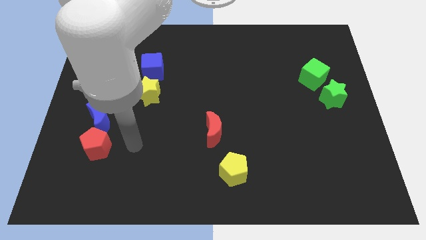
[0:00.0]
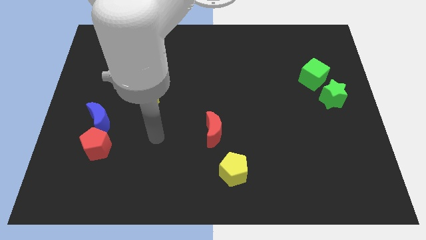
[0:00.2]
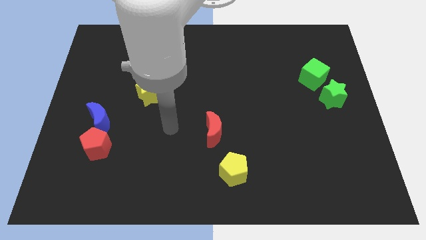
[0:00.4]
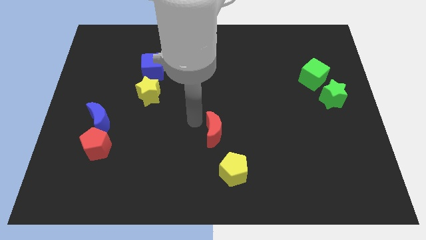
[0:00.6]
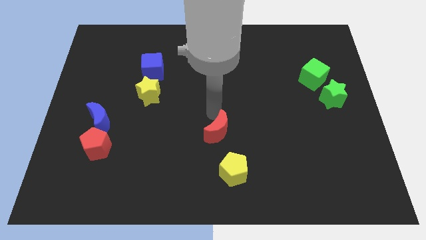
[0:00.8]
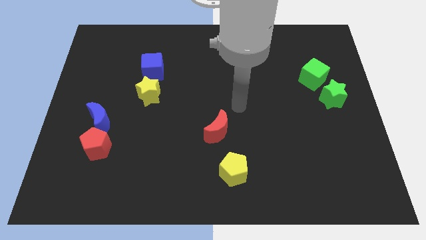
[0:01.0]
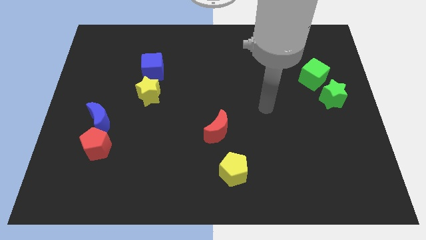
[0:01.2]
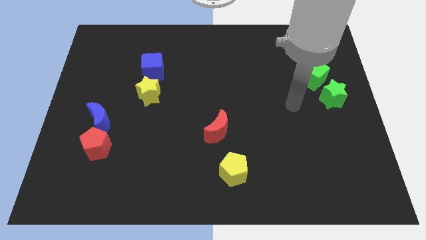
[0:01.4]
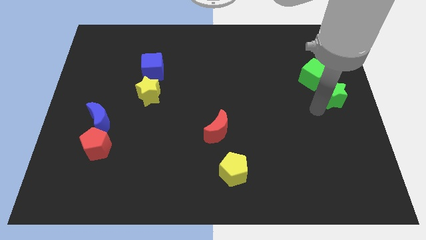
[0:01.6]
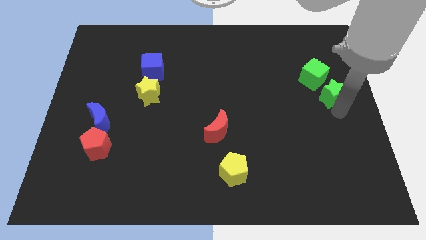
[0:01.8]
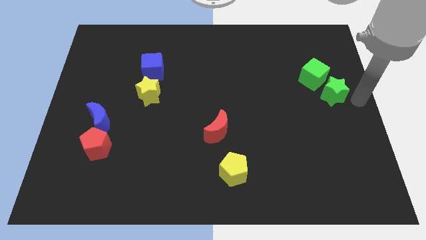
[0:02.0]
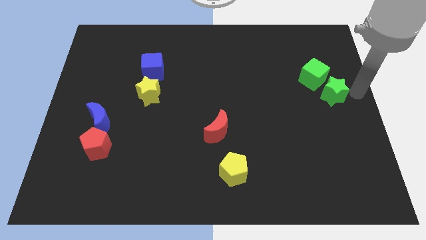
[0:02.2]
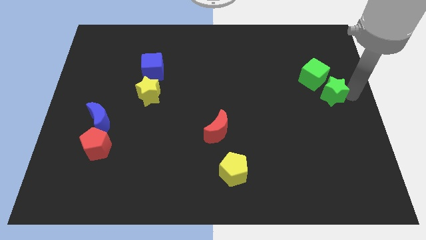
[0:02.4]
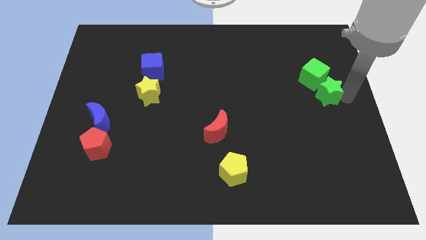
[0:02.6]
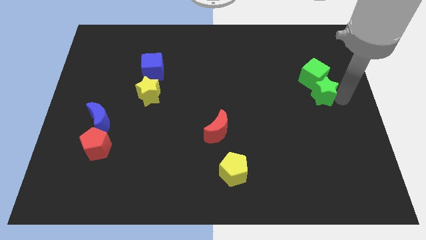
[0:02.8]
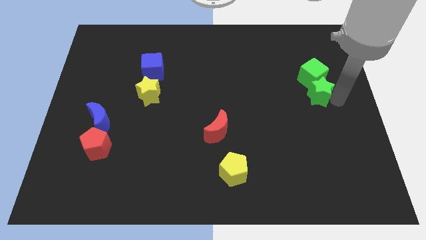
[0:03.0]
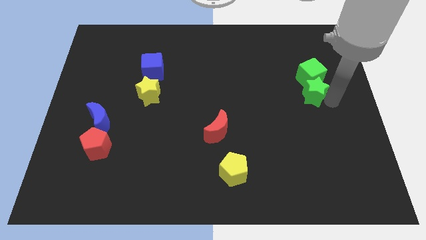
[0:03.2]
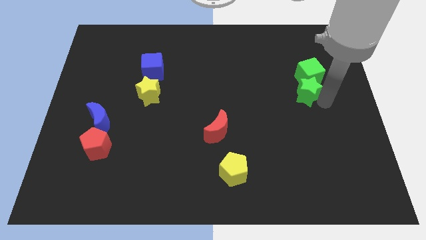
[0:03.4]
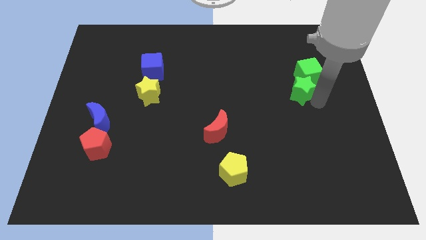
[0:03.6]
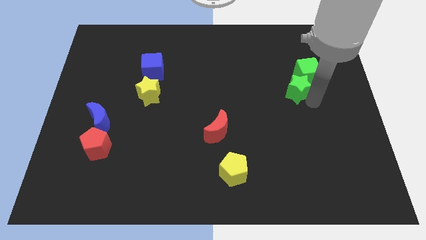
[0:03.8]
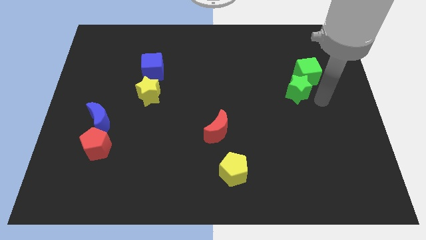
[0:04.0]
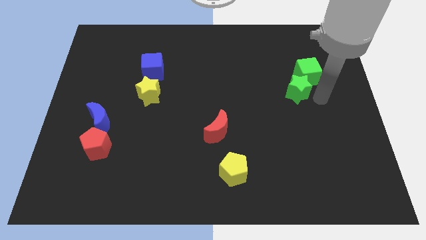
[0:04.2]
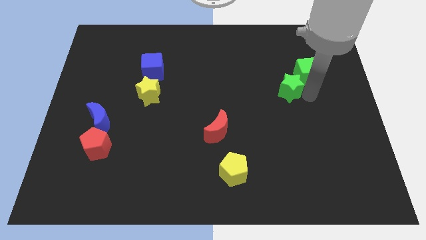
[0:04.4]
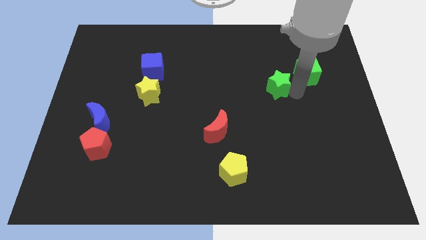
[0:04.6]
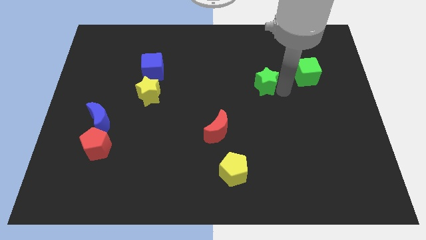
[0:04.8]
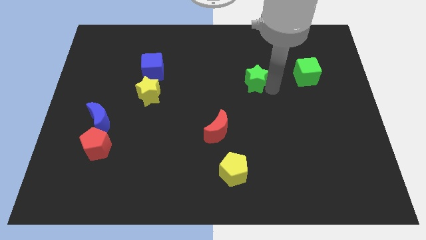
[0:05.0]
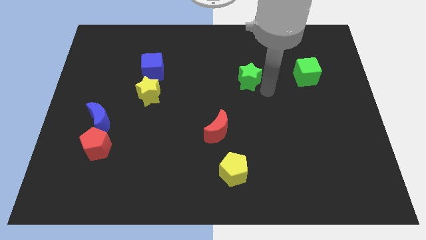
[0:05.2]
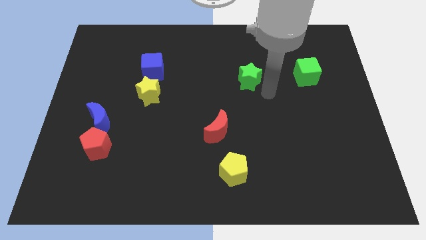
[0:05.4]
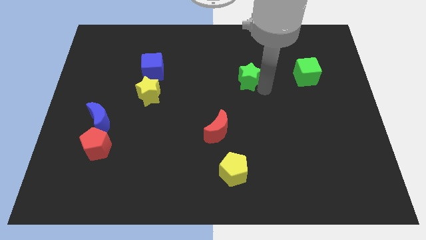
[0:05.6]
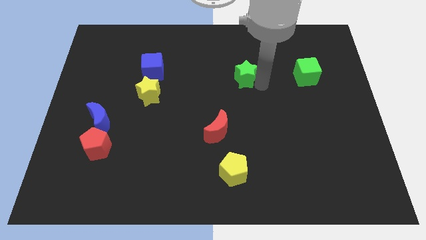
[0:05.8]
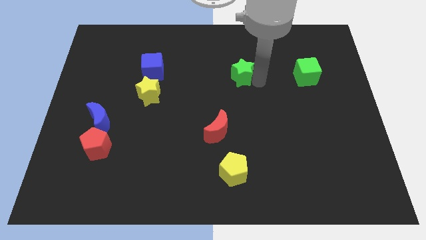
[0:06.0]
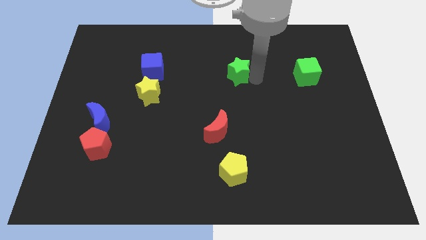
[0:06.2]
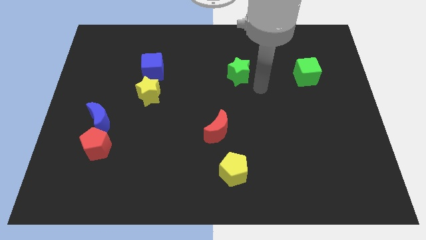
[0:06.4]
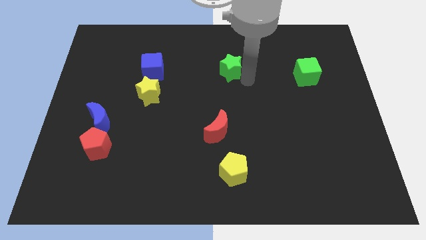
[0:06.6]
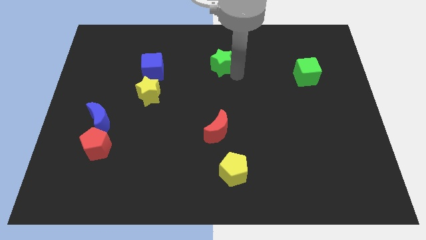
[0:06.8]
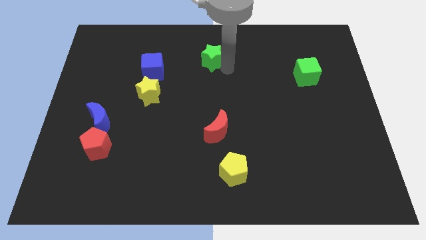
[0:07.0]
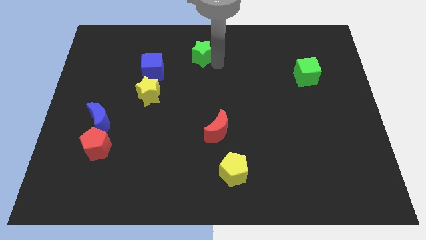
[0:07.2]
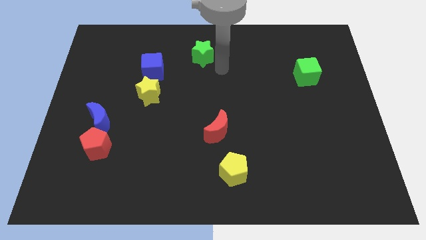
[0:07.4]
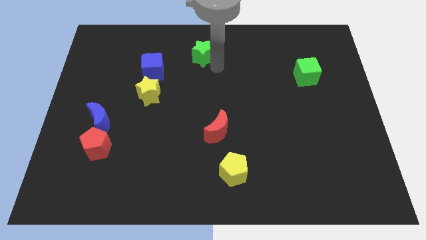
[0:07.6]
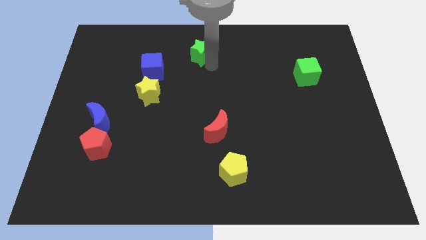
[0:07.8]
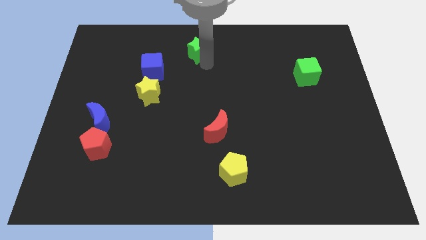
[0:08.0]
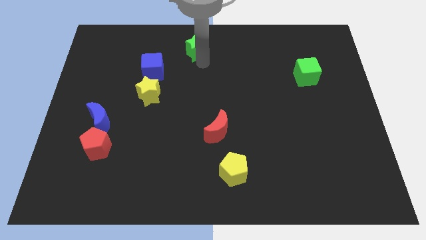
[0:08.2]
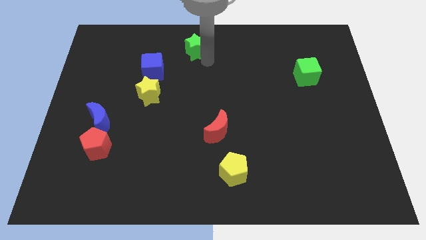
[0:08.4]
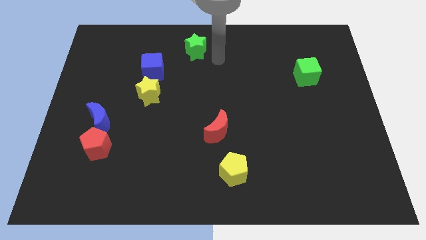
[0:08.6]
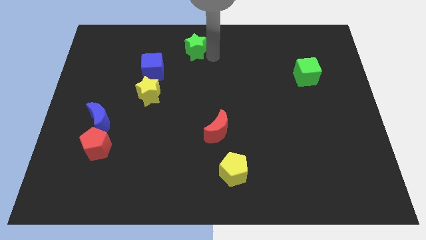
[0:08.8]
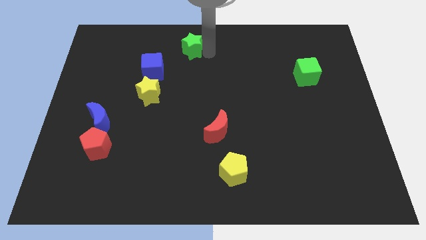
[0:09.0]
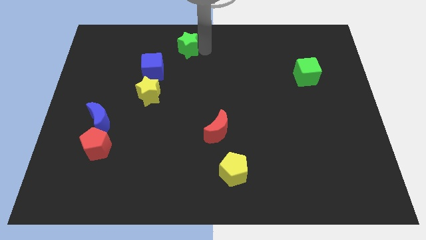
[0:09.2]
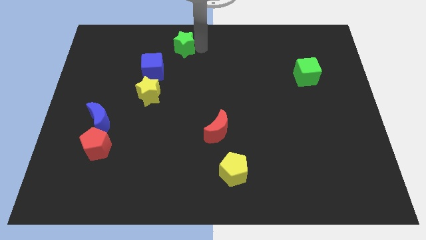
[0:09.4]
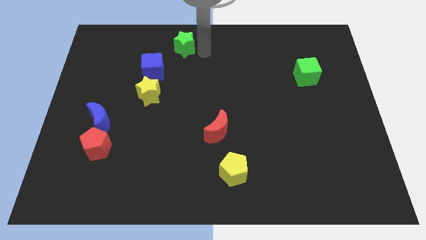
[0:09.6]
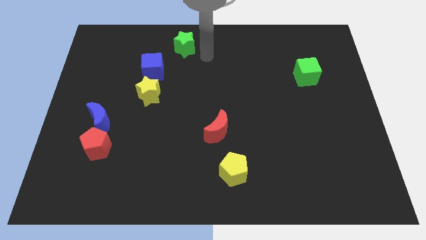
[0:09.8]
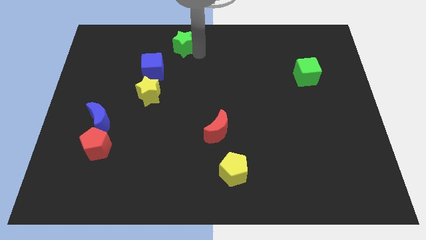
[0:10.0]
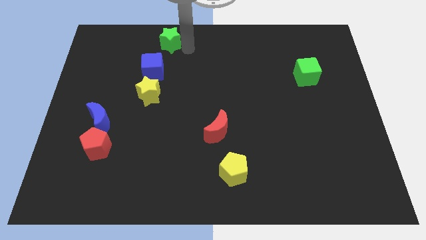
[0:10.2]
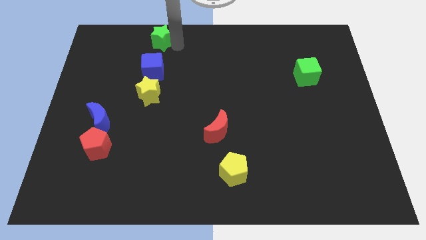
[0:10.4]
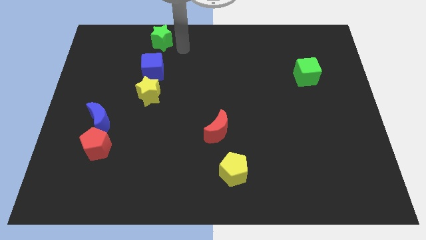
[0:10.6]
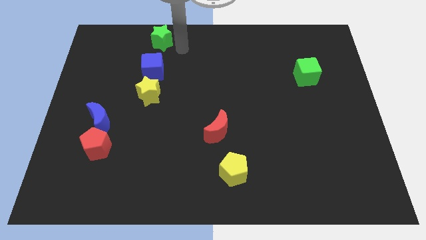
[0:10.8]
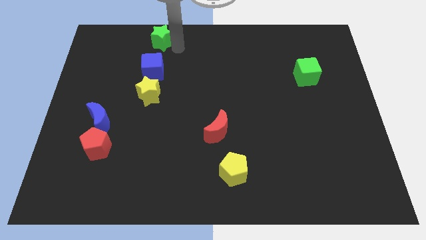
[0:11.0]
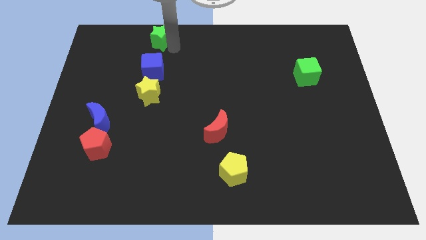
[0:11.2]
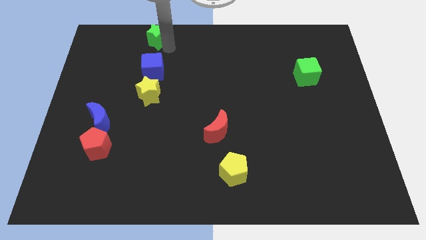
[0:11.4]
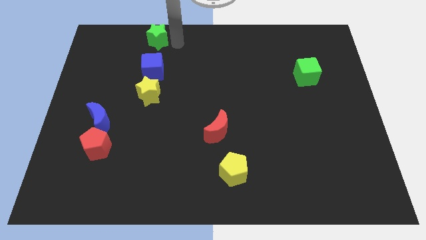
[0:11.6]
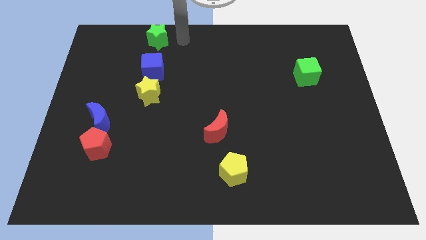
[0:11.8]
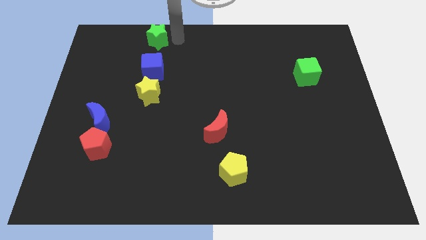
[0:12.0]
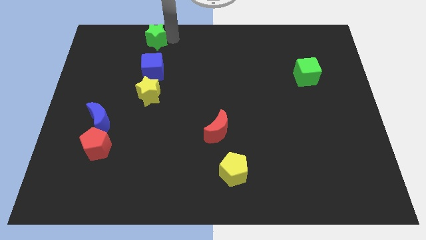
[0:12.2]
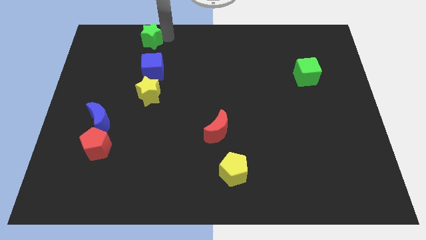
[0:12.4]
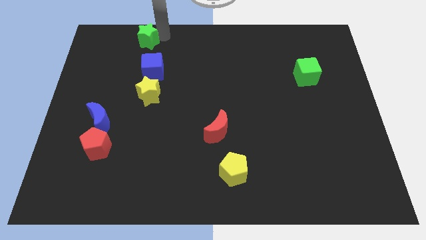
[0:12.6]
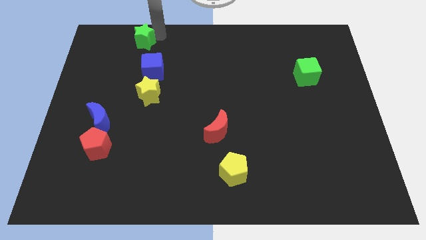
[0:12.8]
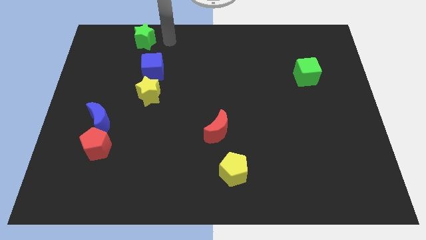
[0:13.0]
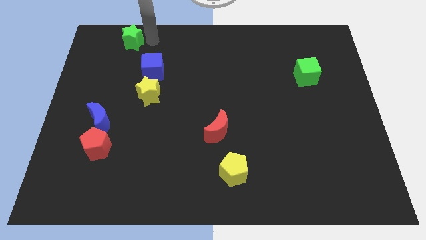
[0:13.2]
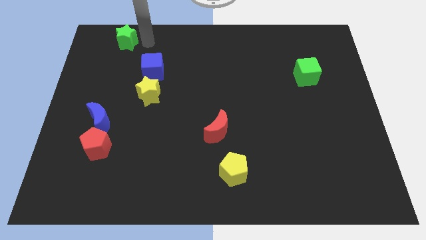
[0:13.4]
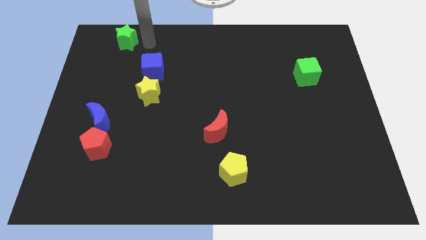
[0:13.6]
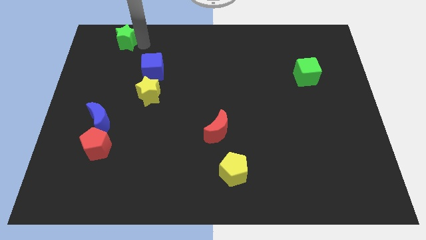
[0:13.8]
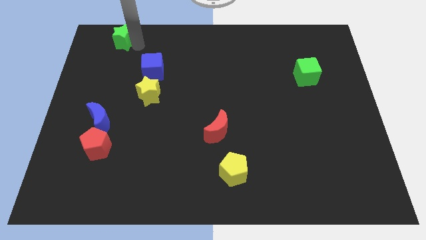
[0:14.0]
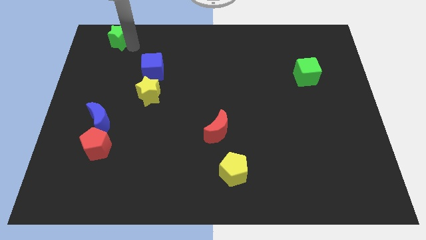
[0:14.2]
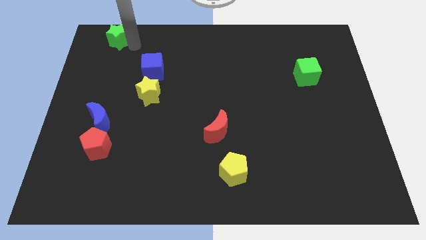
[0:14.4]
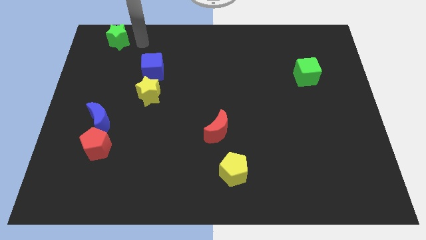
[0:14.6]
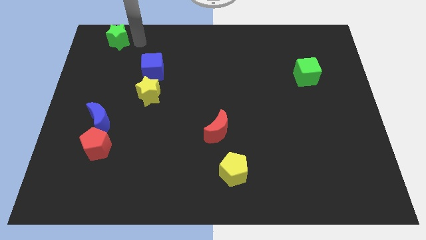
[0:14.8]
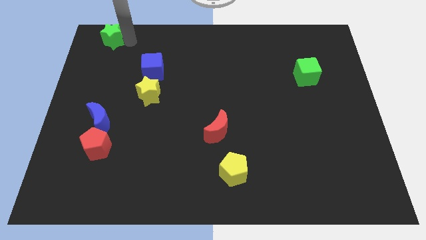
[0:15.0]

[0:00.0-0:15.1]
push the green star to the top left of the board

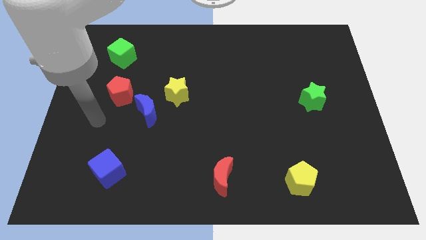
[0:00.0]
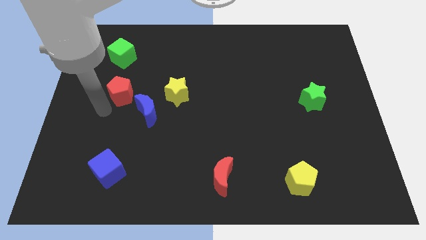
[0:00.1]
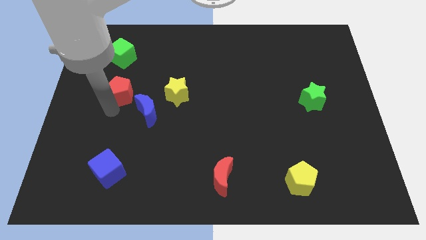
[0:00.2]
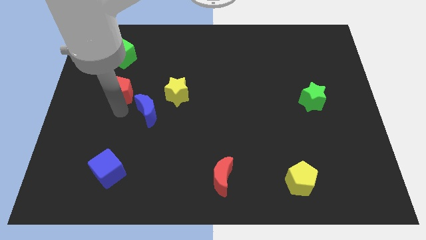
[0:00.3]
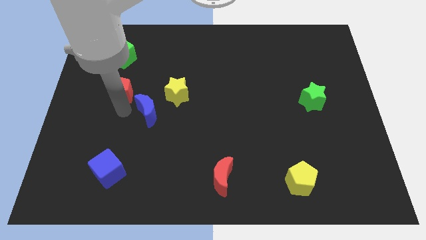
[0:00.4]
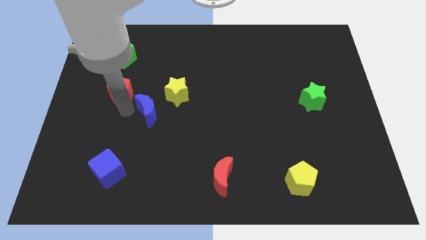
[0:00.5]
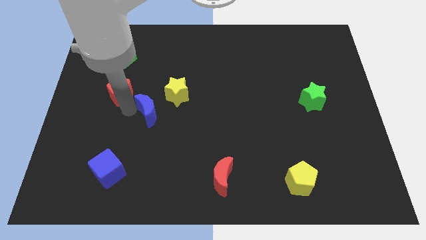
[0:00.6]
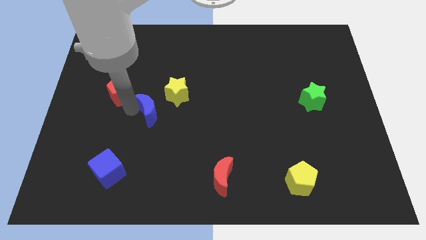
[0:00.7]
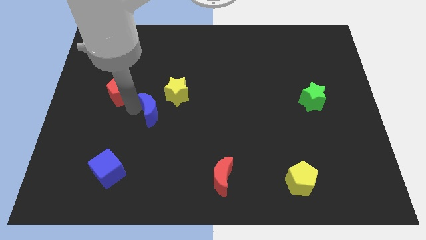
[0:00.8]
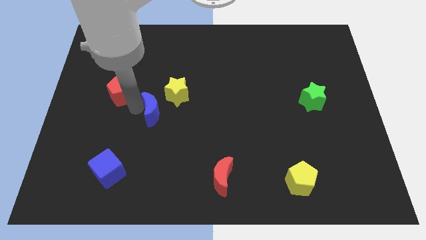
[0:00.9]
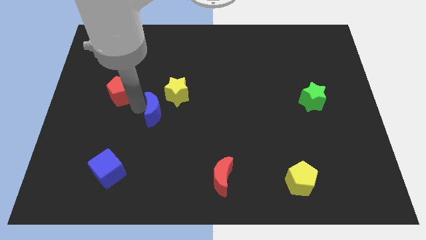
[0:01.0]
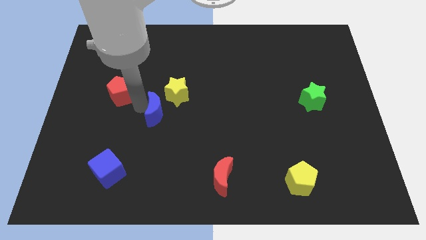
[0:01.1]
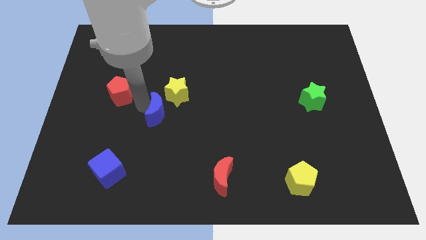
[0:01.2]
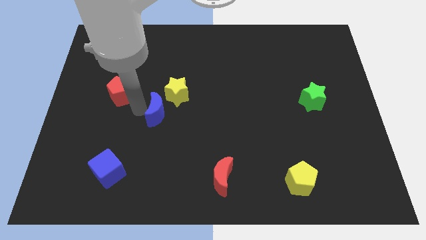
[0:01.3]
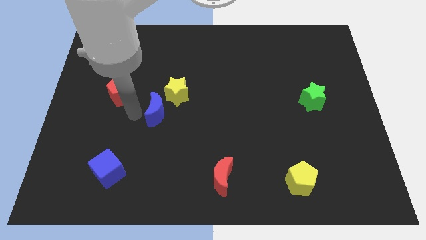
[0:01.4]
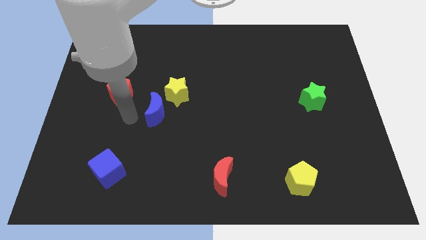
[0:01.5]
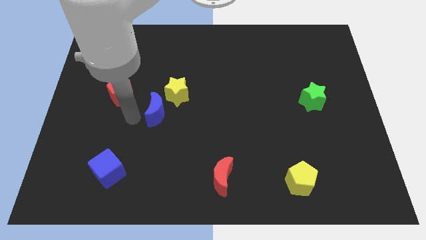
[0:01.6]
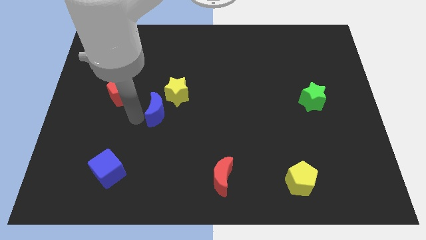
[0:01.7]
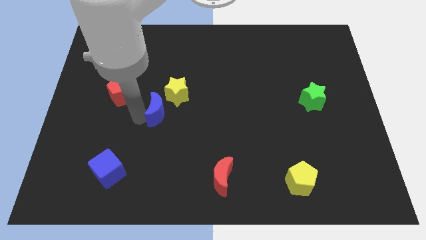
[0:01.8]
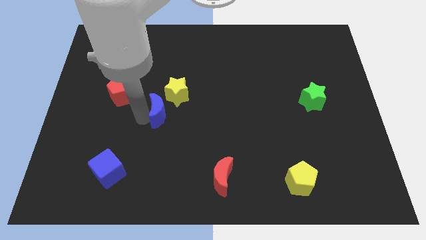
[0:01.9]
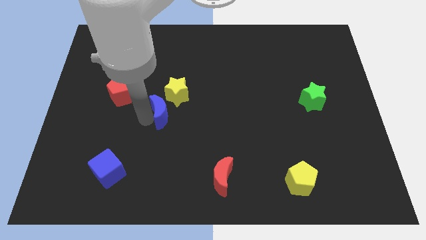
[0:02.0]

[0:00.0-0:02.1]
put the blue moon to the middle
